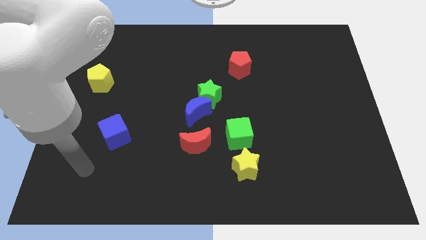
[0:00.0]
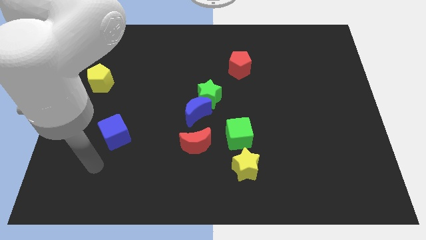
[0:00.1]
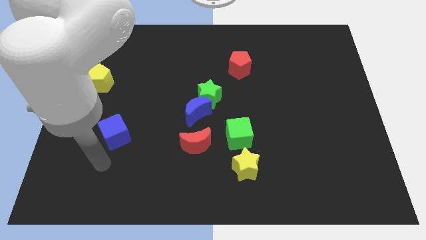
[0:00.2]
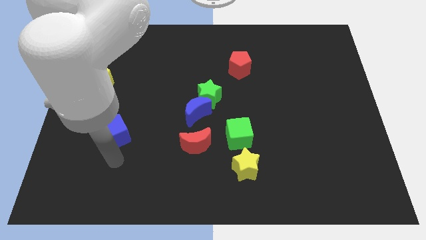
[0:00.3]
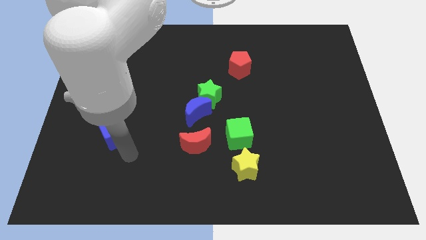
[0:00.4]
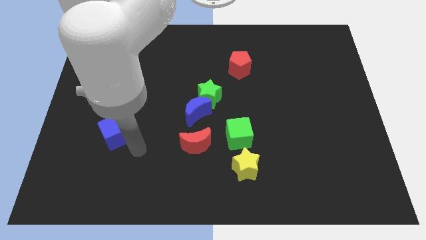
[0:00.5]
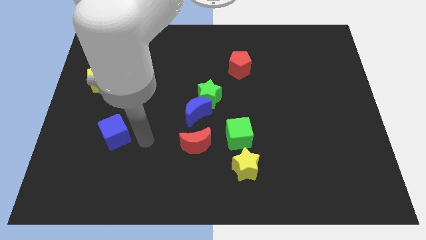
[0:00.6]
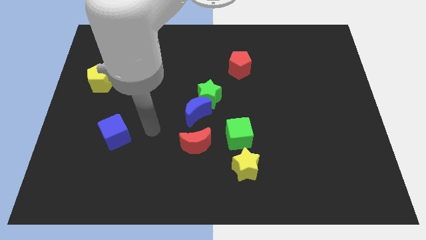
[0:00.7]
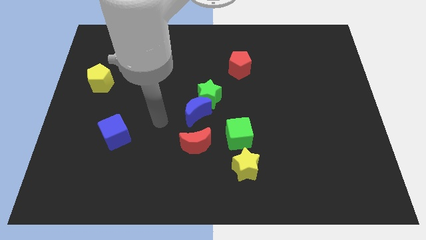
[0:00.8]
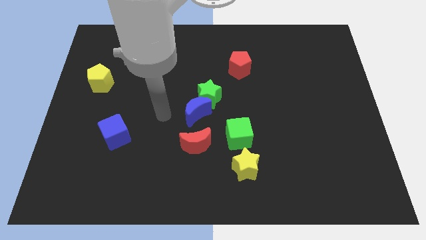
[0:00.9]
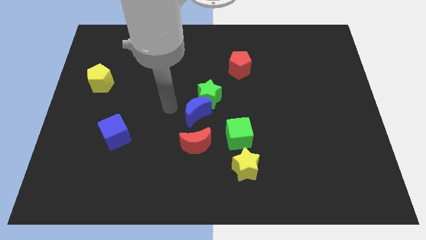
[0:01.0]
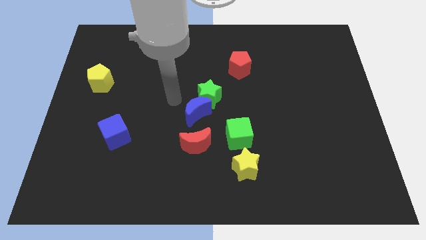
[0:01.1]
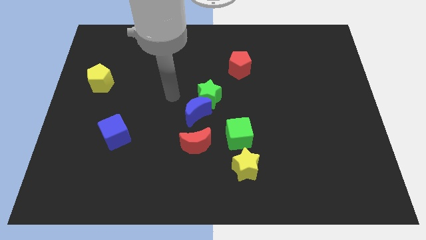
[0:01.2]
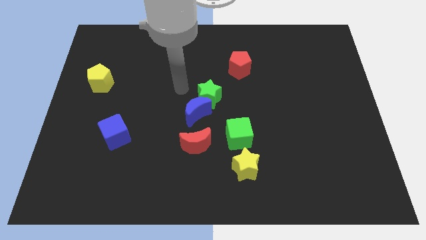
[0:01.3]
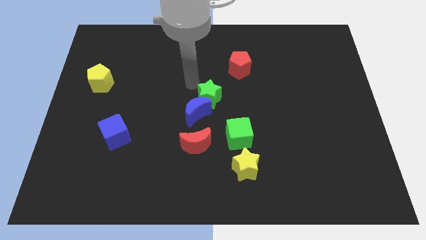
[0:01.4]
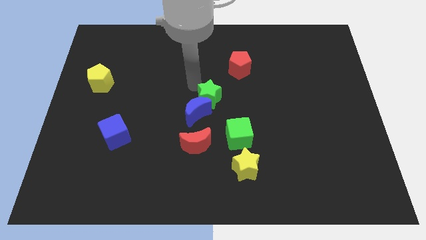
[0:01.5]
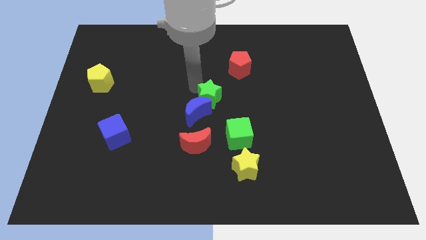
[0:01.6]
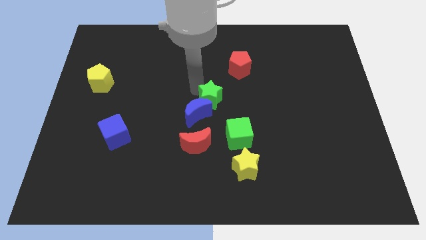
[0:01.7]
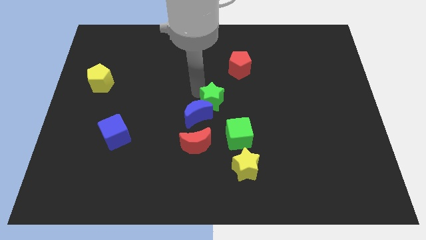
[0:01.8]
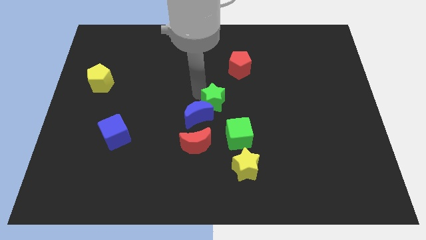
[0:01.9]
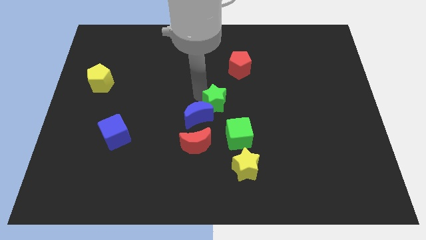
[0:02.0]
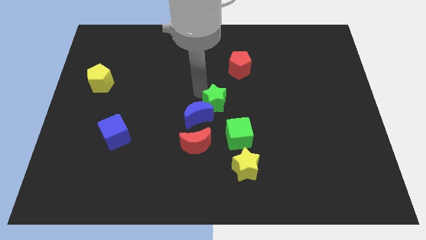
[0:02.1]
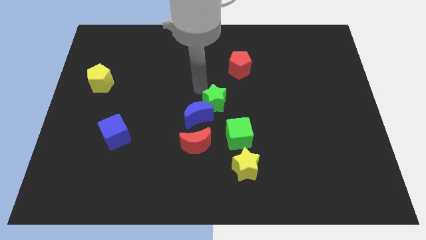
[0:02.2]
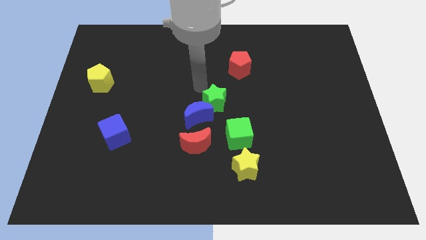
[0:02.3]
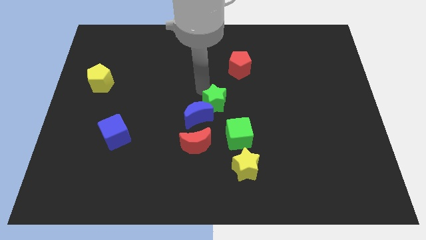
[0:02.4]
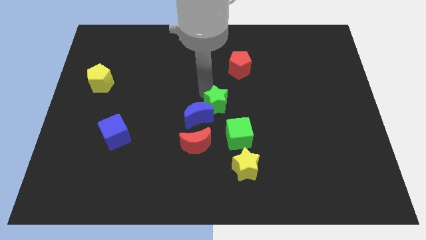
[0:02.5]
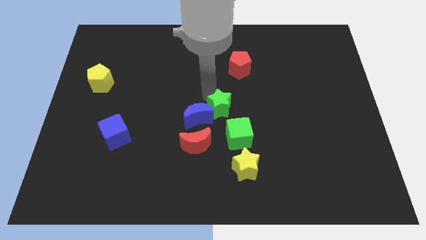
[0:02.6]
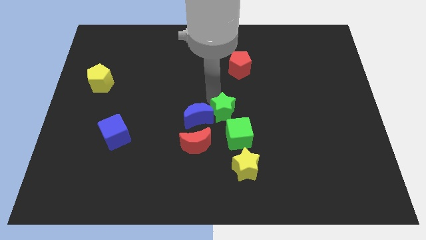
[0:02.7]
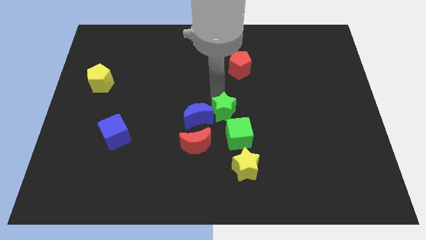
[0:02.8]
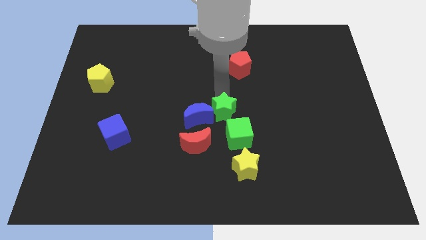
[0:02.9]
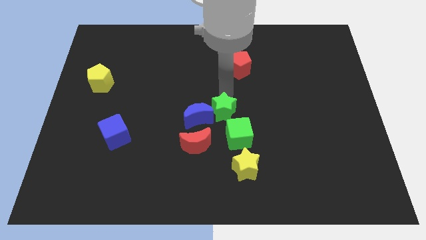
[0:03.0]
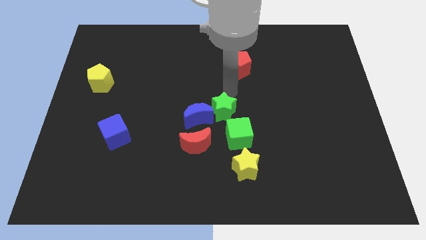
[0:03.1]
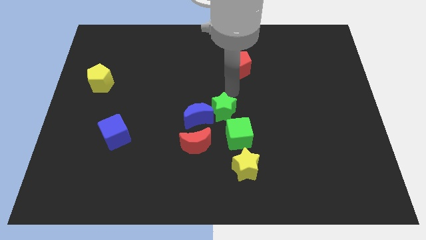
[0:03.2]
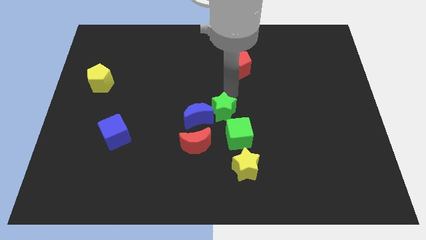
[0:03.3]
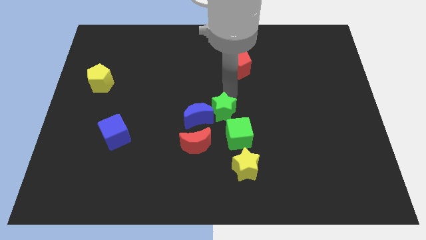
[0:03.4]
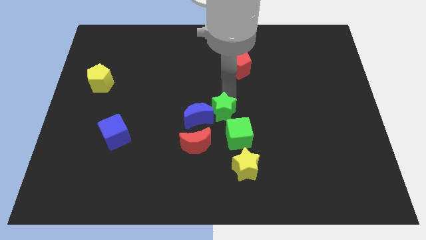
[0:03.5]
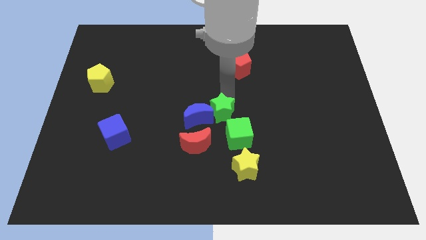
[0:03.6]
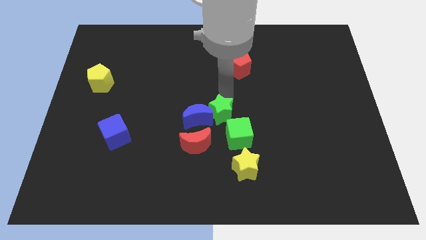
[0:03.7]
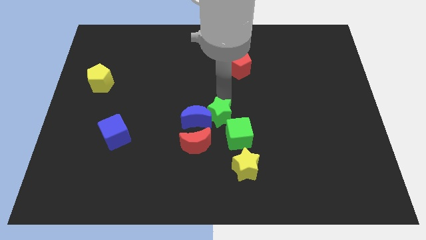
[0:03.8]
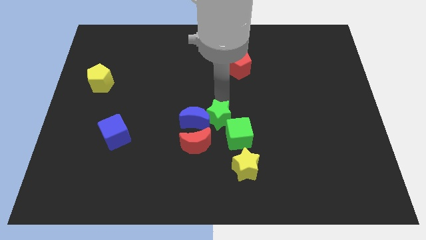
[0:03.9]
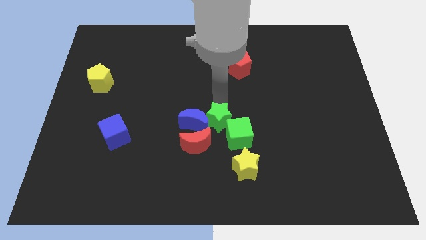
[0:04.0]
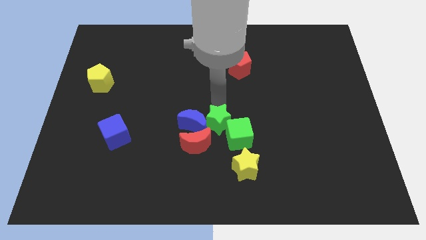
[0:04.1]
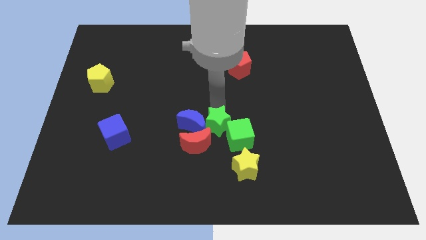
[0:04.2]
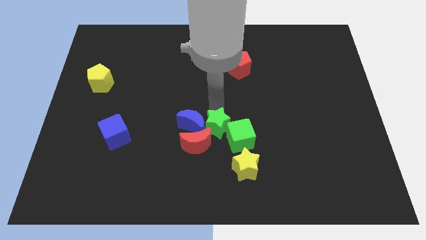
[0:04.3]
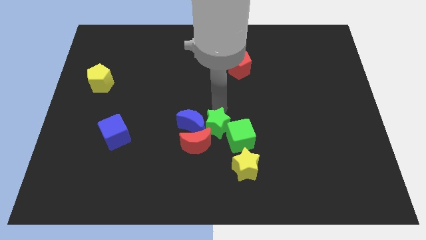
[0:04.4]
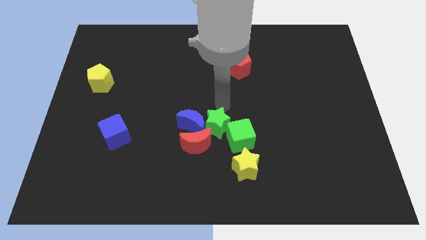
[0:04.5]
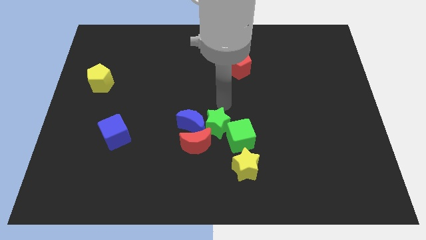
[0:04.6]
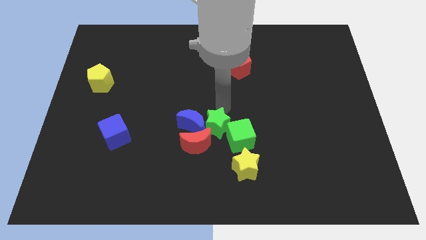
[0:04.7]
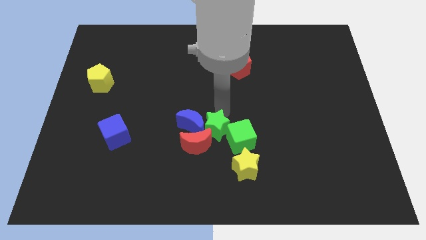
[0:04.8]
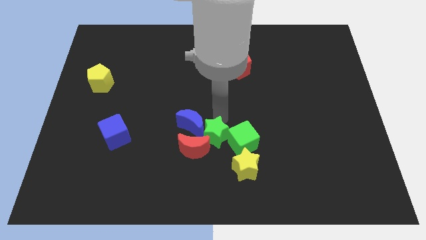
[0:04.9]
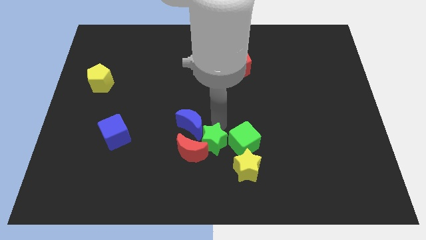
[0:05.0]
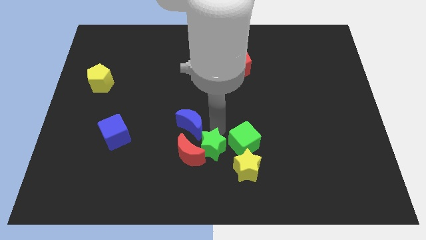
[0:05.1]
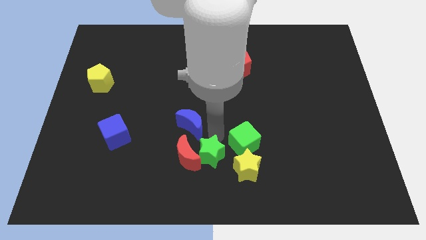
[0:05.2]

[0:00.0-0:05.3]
push the green star to the bottom
